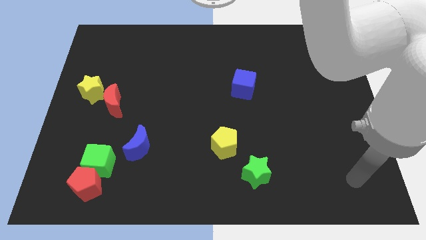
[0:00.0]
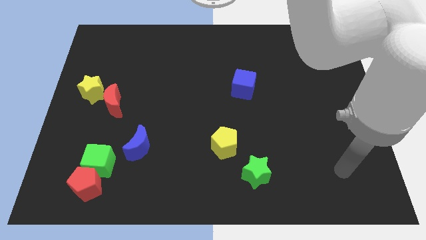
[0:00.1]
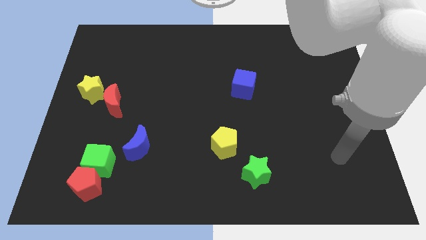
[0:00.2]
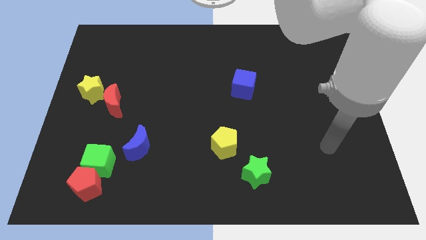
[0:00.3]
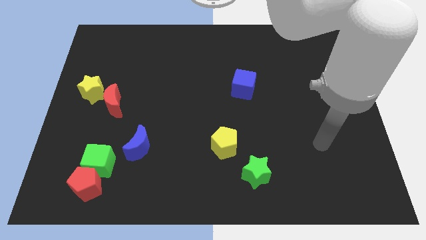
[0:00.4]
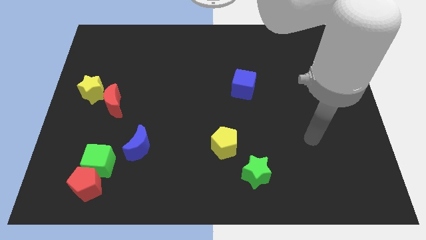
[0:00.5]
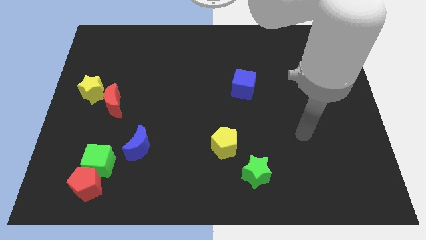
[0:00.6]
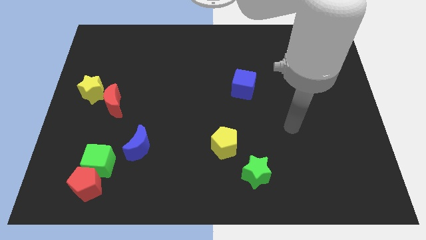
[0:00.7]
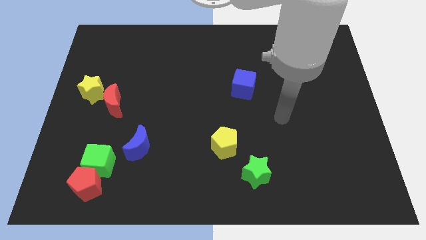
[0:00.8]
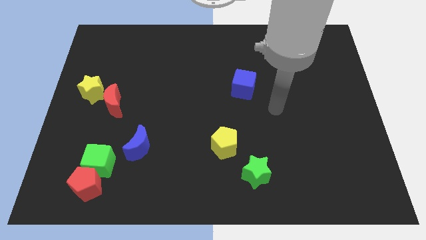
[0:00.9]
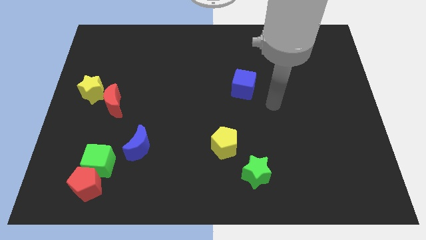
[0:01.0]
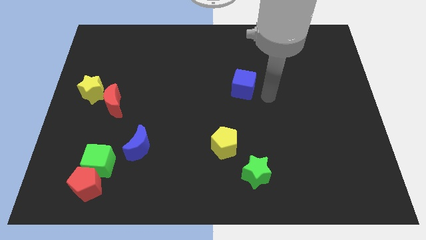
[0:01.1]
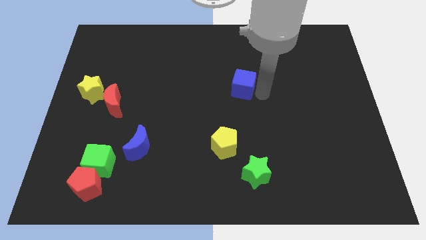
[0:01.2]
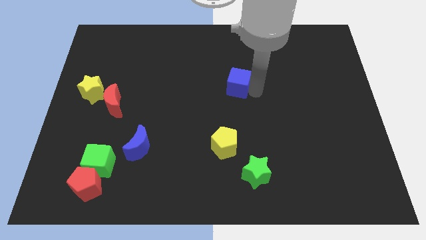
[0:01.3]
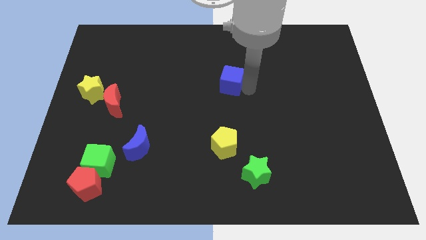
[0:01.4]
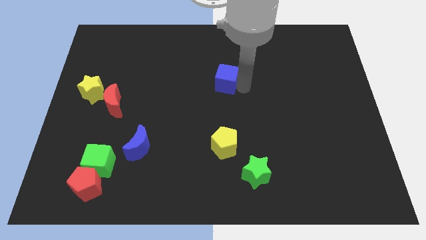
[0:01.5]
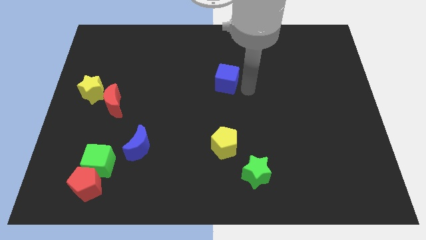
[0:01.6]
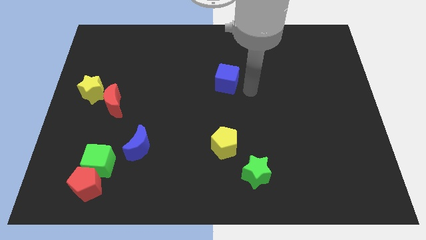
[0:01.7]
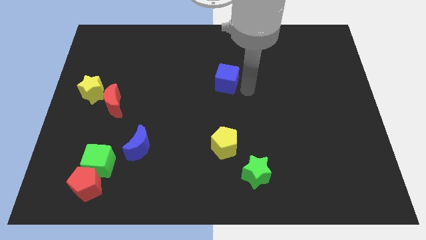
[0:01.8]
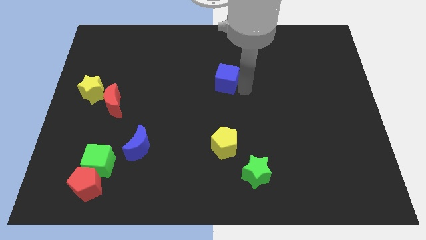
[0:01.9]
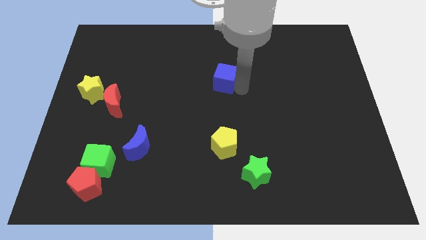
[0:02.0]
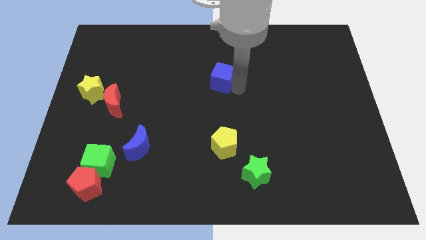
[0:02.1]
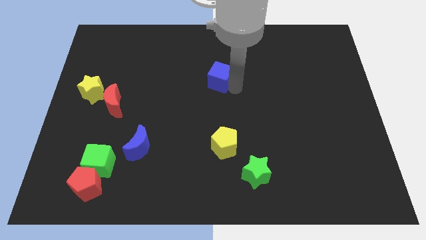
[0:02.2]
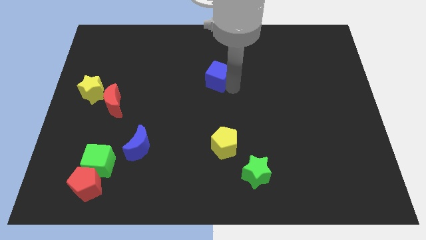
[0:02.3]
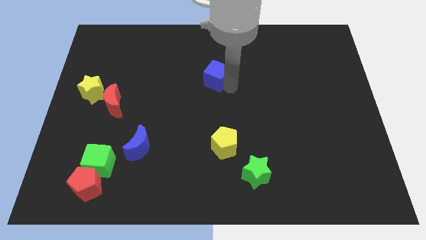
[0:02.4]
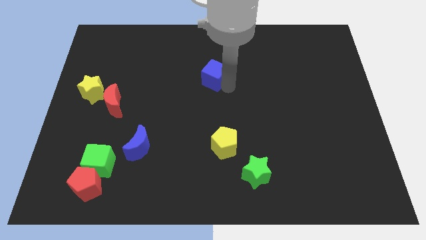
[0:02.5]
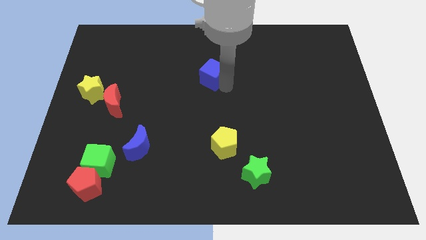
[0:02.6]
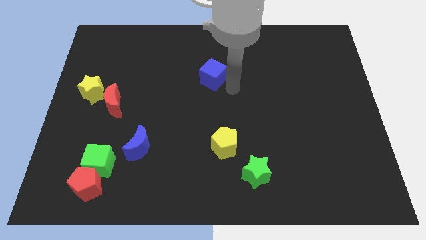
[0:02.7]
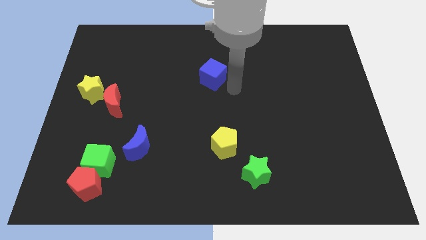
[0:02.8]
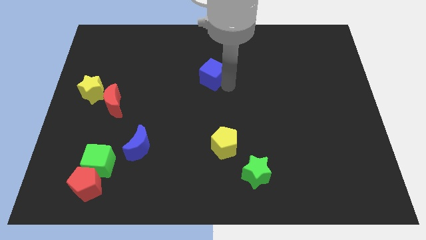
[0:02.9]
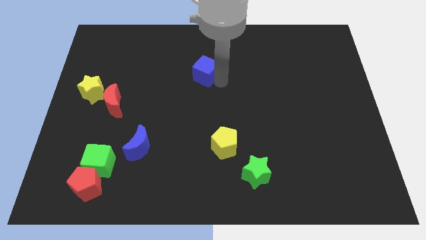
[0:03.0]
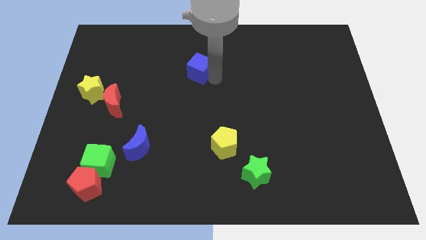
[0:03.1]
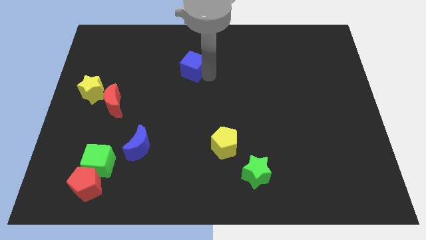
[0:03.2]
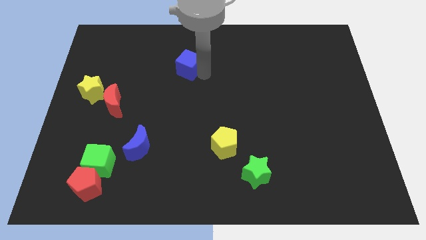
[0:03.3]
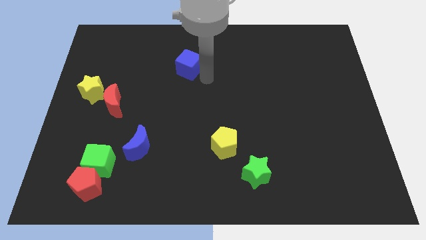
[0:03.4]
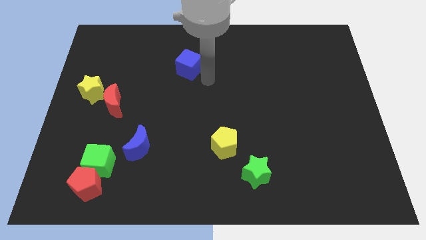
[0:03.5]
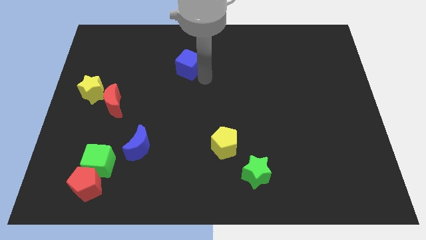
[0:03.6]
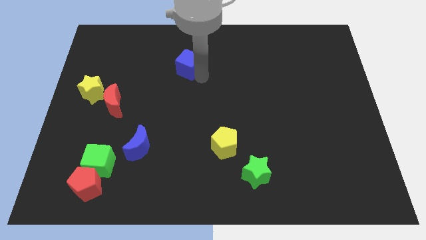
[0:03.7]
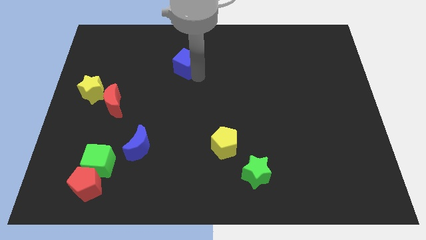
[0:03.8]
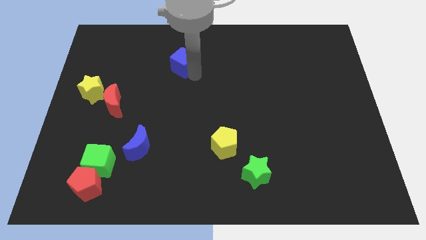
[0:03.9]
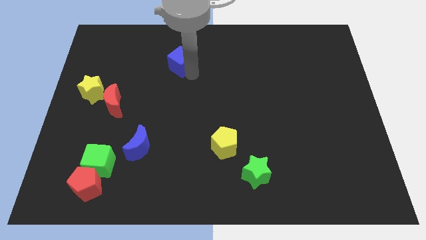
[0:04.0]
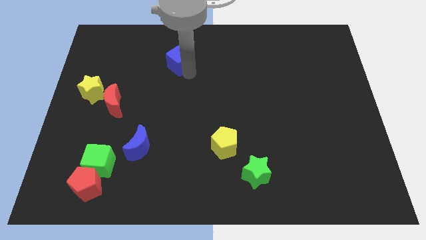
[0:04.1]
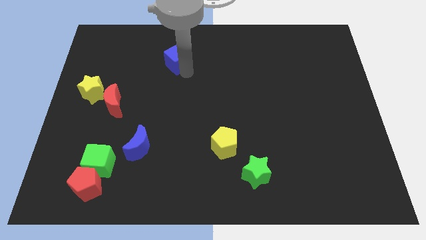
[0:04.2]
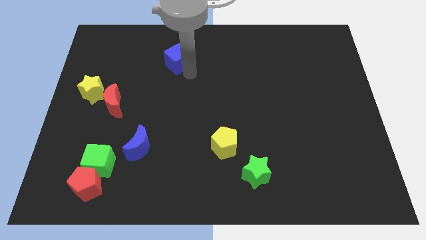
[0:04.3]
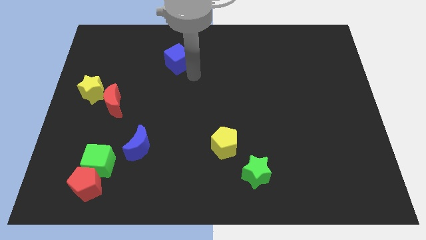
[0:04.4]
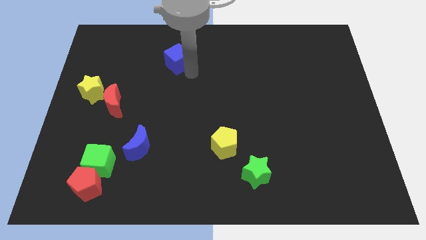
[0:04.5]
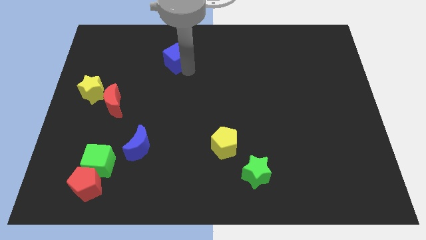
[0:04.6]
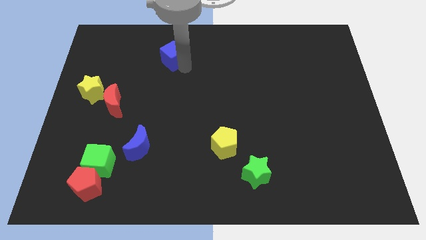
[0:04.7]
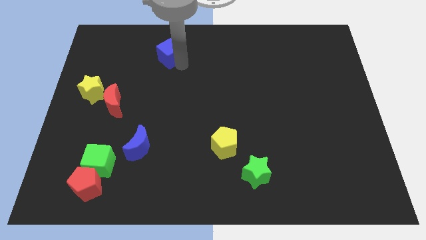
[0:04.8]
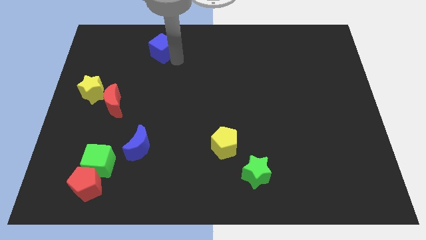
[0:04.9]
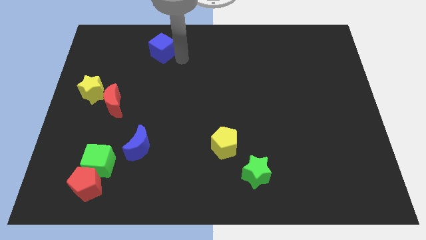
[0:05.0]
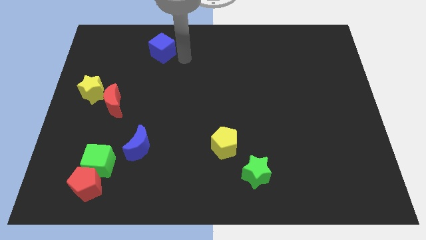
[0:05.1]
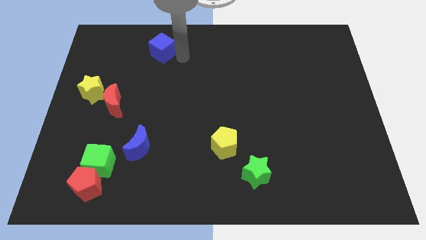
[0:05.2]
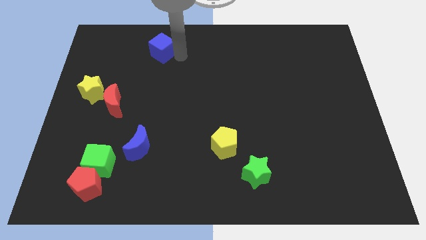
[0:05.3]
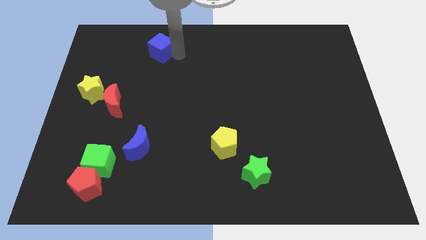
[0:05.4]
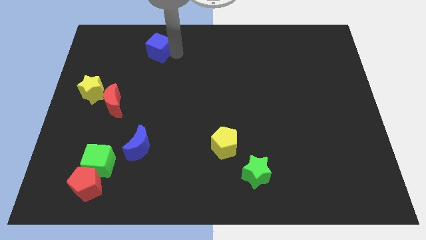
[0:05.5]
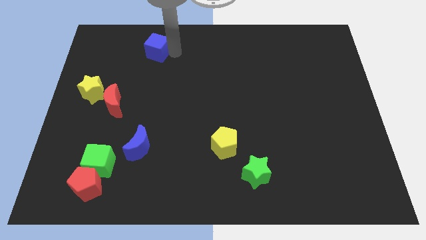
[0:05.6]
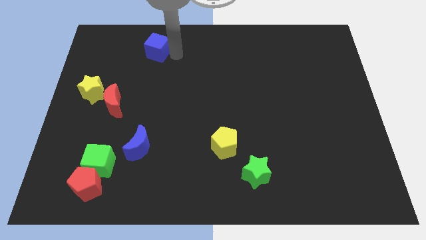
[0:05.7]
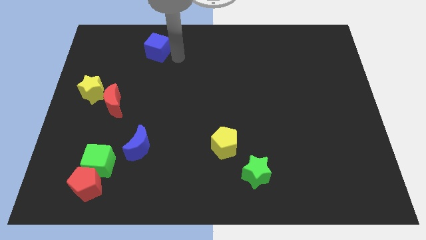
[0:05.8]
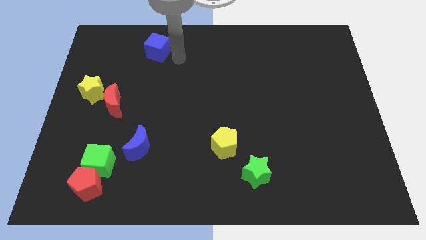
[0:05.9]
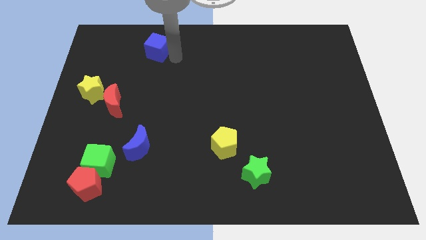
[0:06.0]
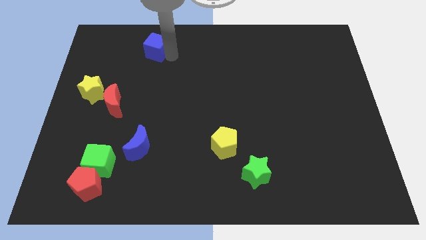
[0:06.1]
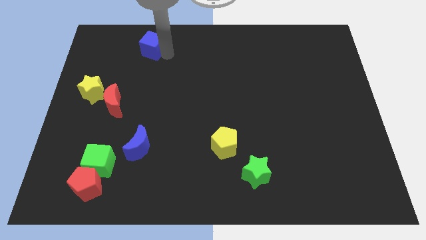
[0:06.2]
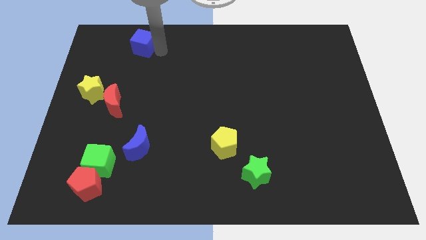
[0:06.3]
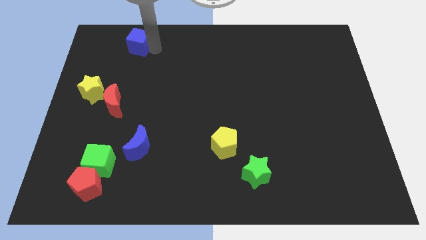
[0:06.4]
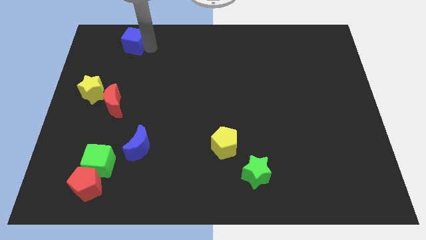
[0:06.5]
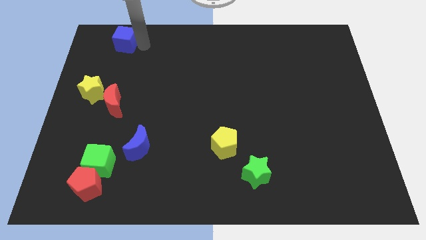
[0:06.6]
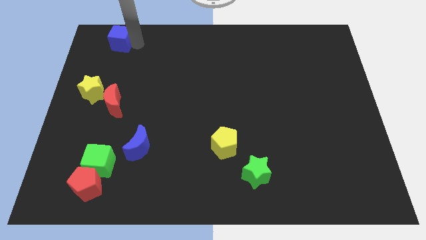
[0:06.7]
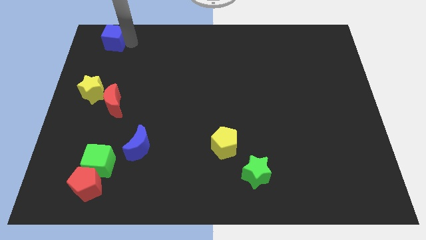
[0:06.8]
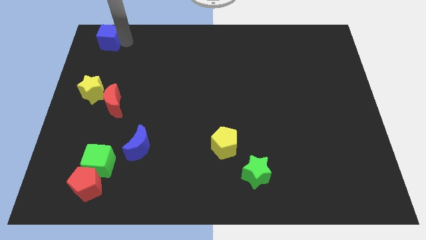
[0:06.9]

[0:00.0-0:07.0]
slide the blue cube to the top left corner
